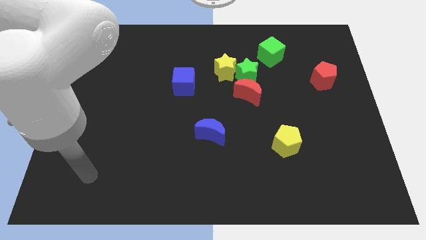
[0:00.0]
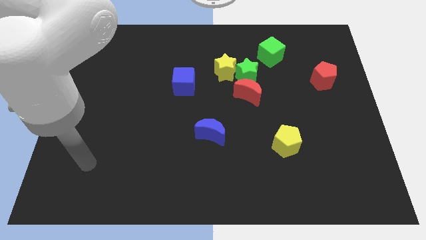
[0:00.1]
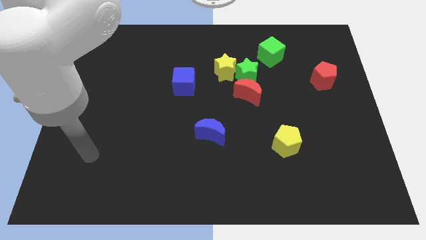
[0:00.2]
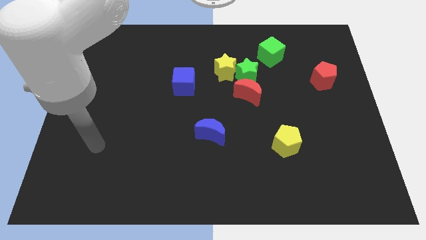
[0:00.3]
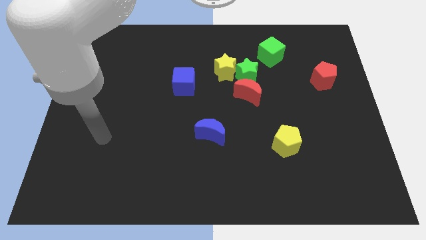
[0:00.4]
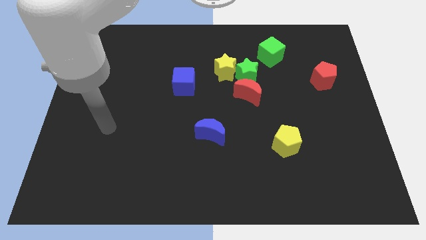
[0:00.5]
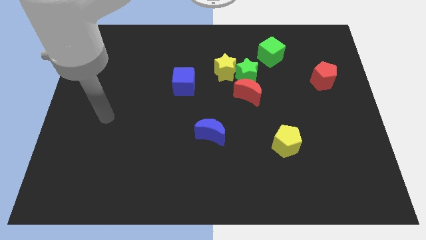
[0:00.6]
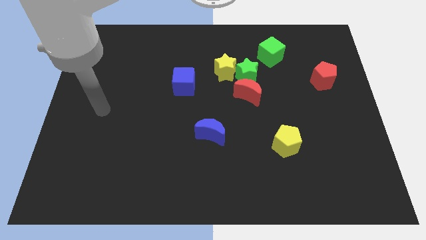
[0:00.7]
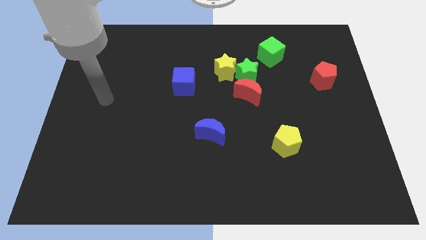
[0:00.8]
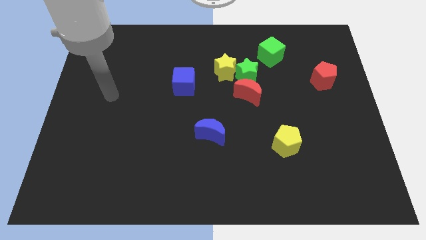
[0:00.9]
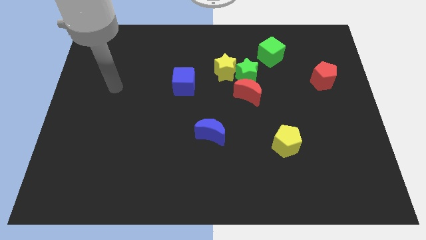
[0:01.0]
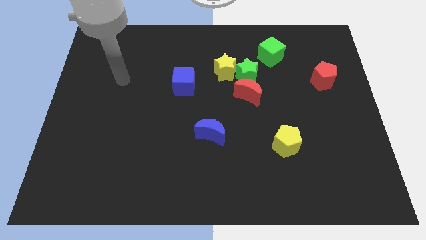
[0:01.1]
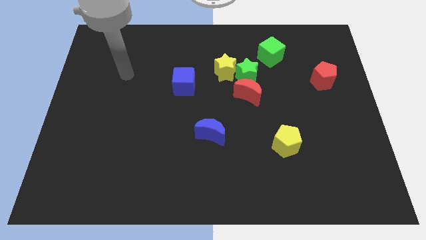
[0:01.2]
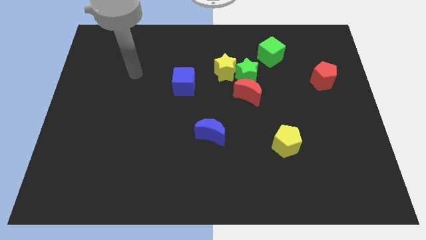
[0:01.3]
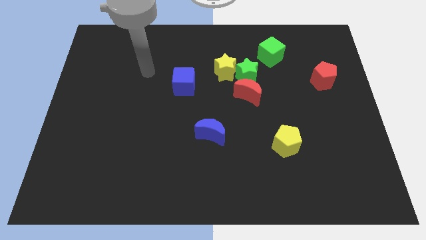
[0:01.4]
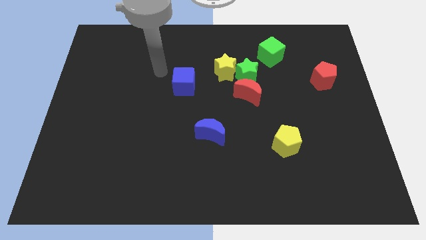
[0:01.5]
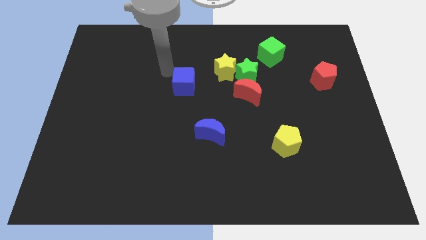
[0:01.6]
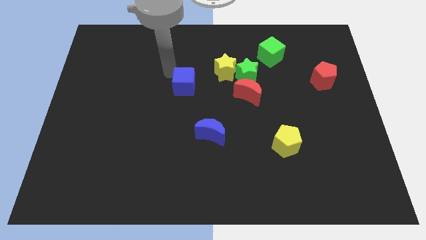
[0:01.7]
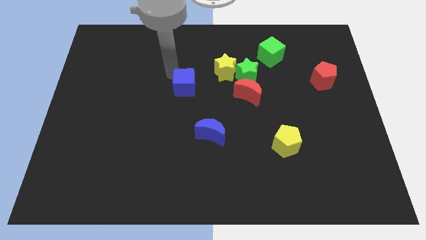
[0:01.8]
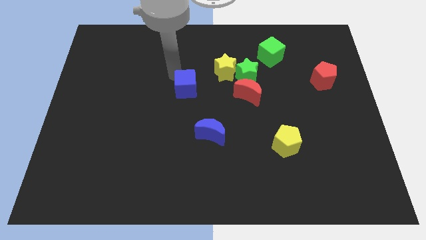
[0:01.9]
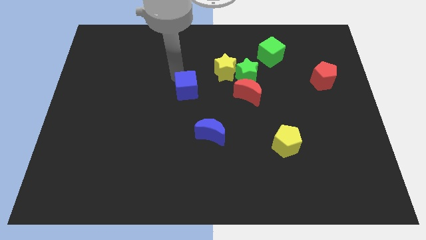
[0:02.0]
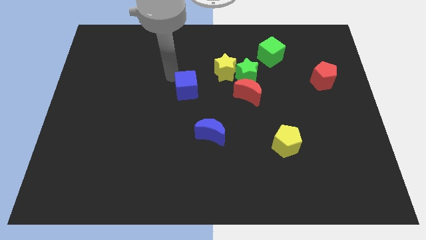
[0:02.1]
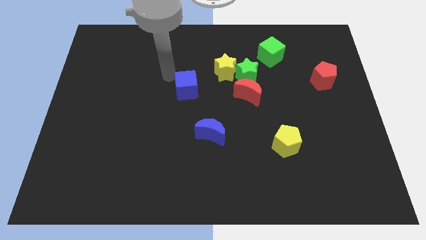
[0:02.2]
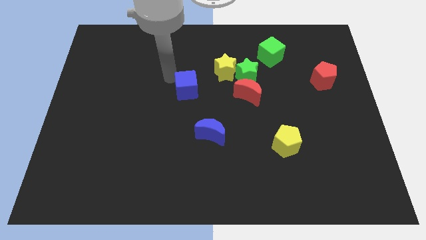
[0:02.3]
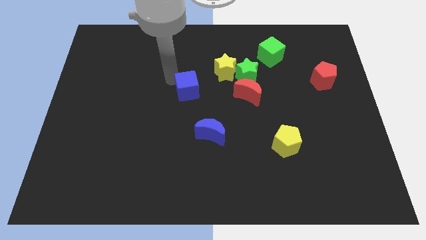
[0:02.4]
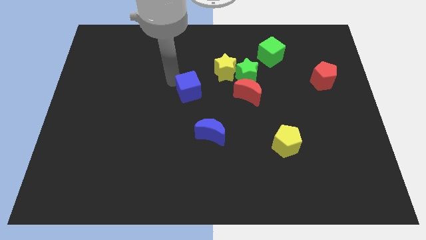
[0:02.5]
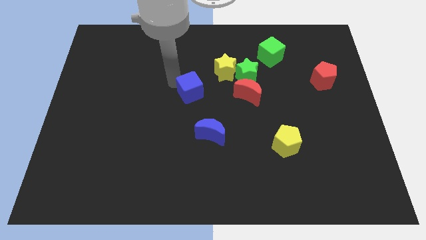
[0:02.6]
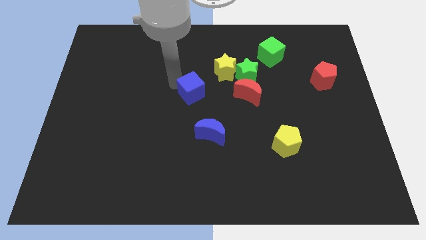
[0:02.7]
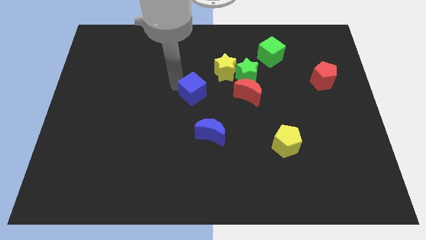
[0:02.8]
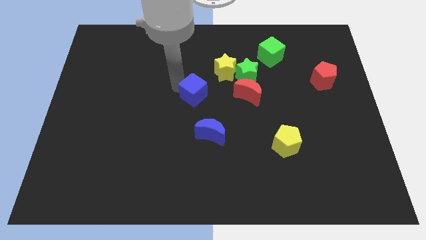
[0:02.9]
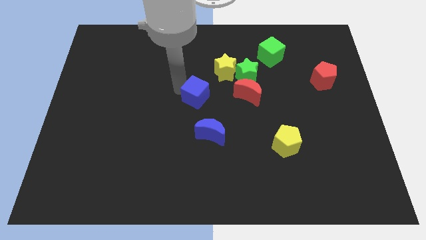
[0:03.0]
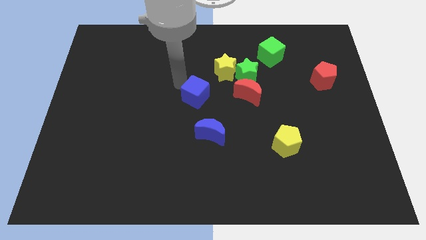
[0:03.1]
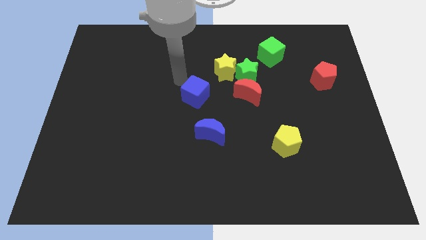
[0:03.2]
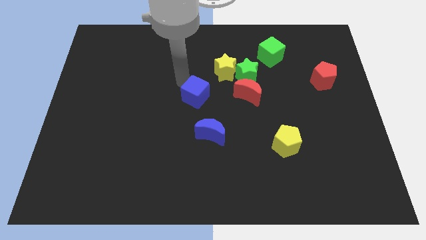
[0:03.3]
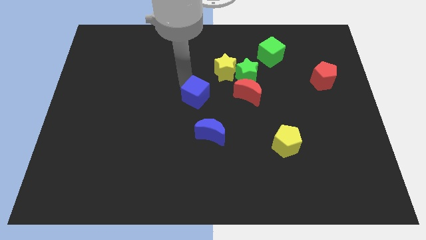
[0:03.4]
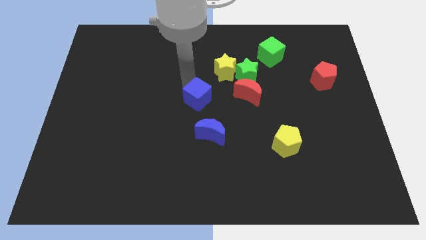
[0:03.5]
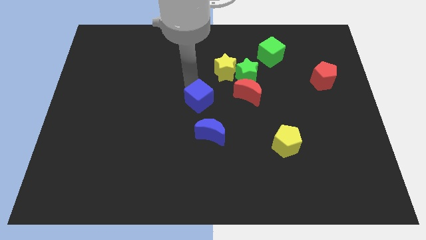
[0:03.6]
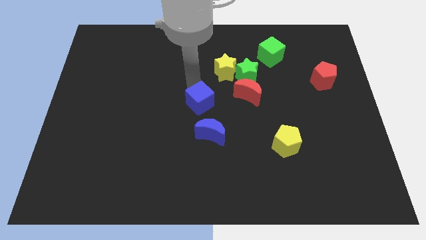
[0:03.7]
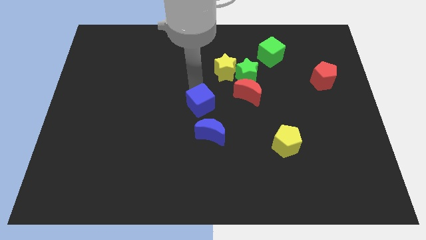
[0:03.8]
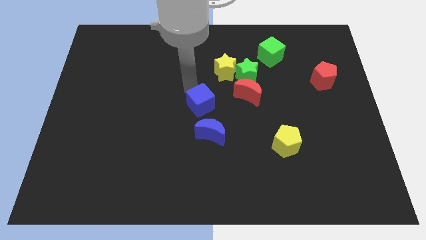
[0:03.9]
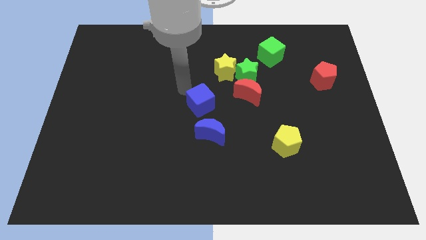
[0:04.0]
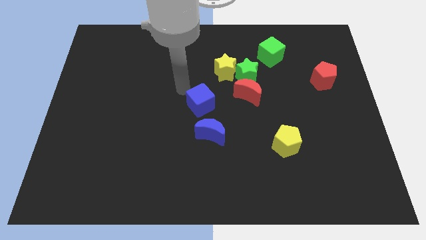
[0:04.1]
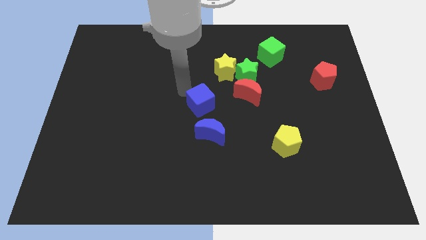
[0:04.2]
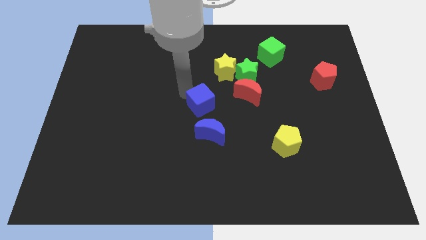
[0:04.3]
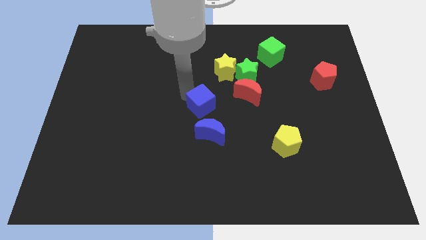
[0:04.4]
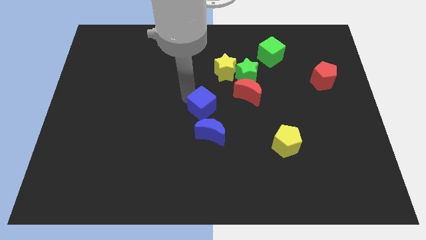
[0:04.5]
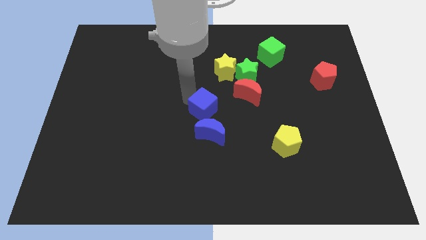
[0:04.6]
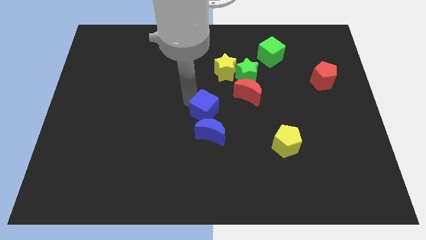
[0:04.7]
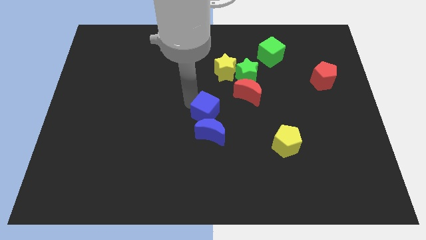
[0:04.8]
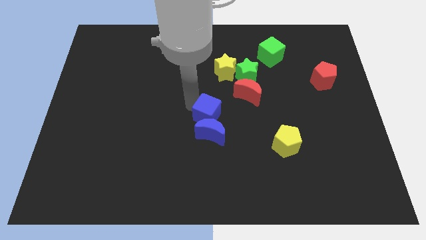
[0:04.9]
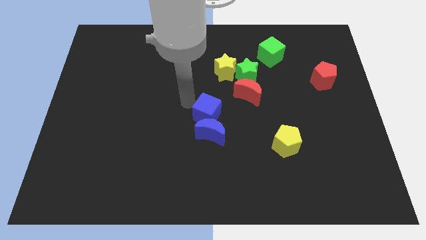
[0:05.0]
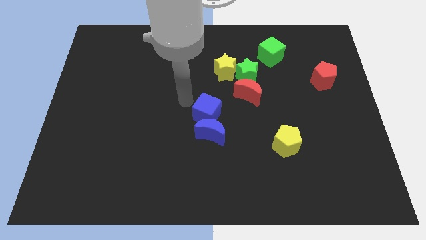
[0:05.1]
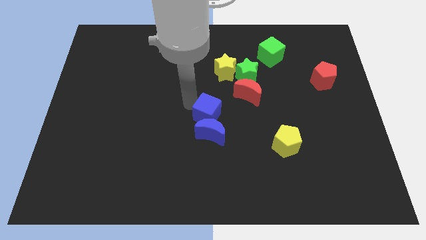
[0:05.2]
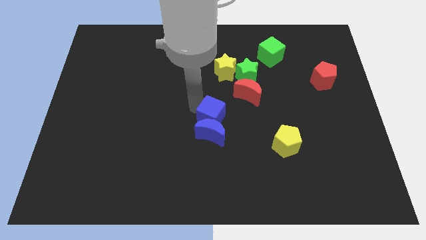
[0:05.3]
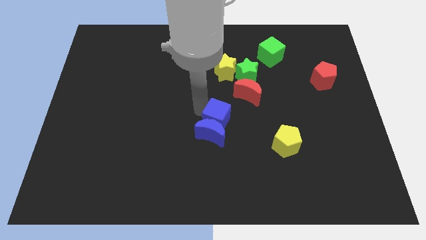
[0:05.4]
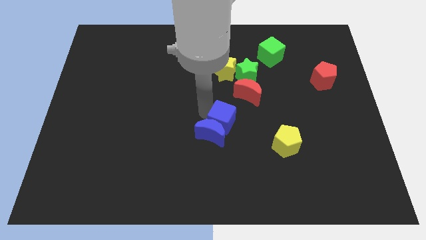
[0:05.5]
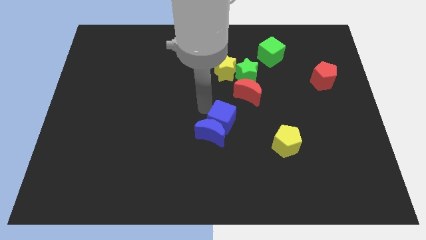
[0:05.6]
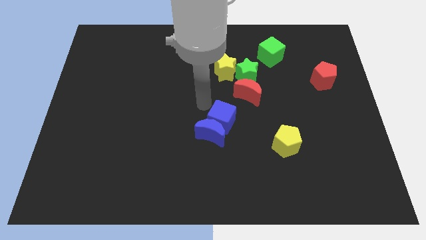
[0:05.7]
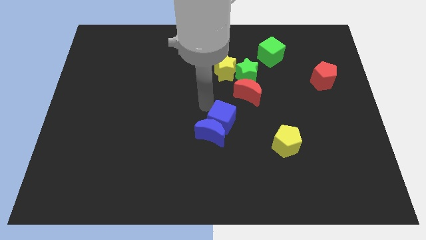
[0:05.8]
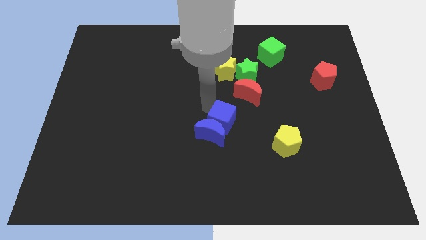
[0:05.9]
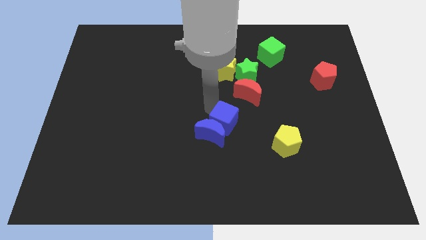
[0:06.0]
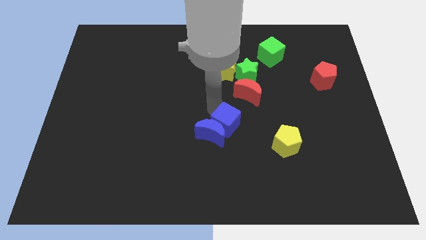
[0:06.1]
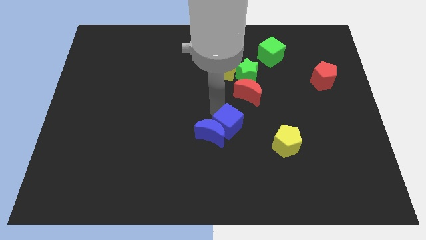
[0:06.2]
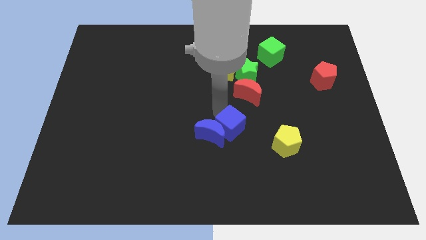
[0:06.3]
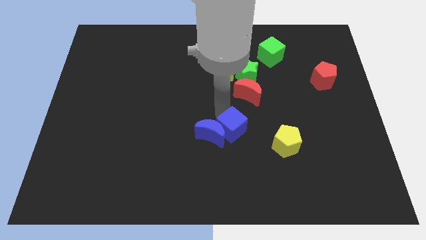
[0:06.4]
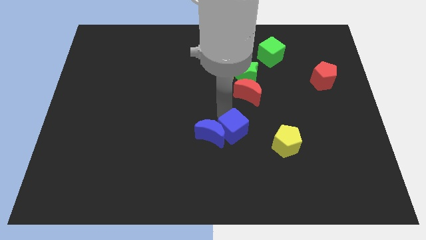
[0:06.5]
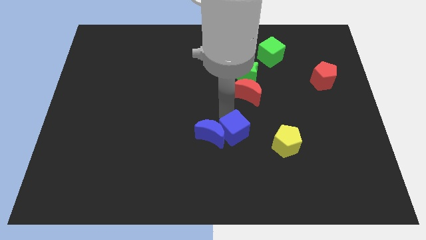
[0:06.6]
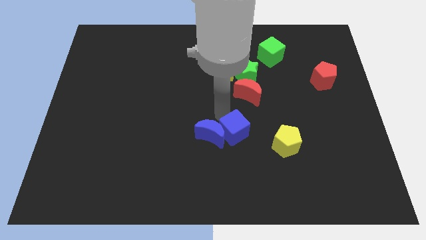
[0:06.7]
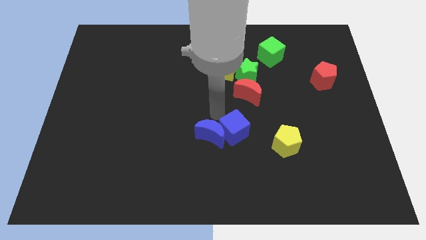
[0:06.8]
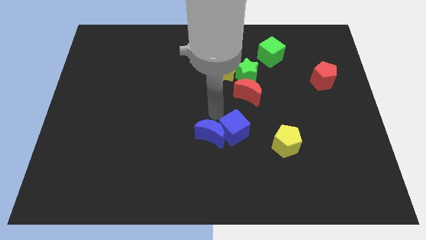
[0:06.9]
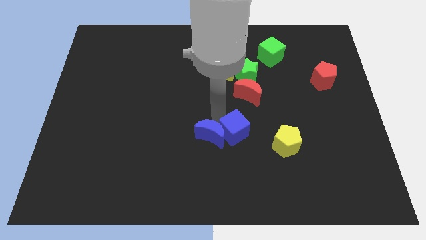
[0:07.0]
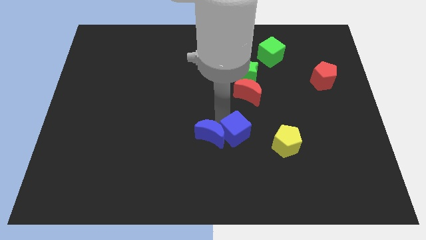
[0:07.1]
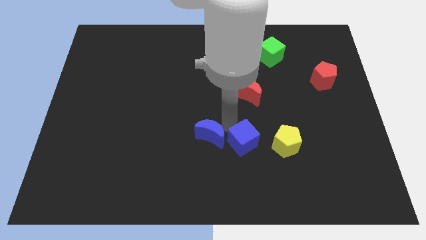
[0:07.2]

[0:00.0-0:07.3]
slide the blue cube diagonally downwards and right

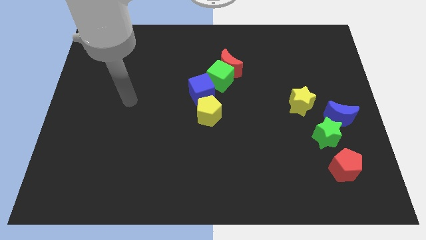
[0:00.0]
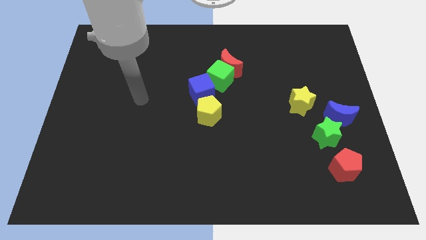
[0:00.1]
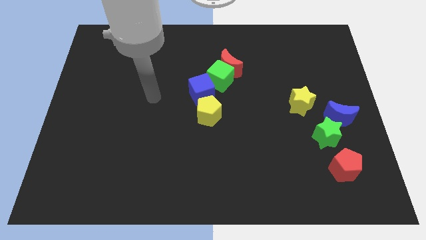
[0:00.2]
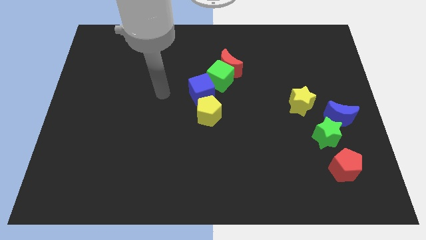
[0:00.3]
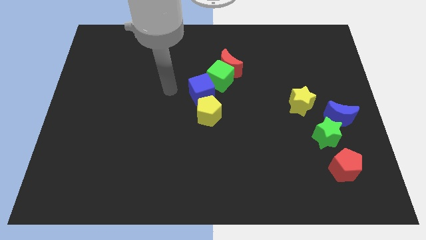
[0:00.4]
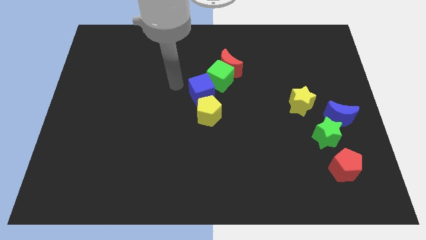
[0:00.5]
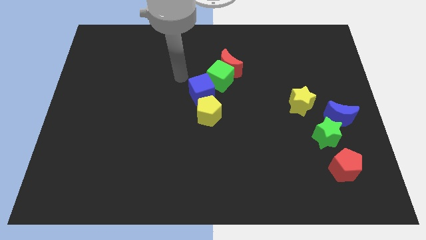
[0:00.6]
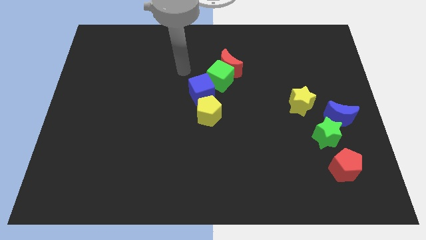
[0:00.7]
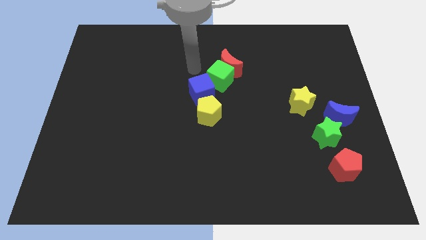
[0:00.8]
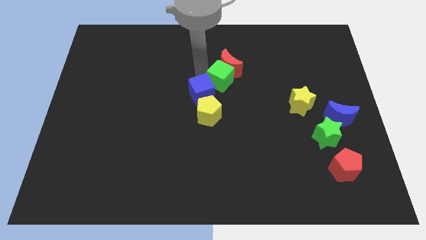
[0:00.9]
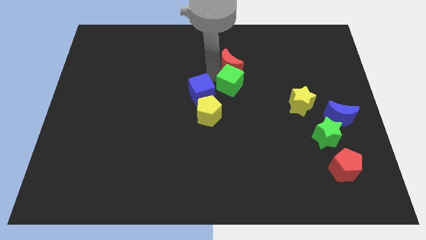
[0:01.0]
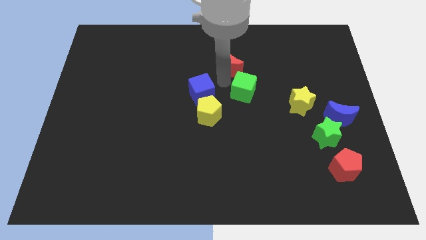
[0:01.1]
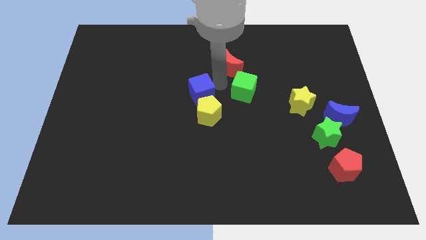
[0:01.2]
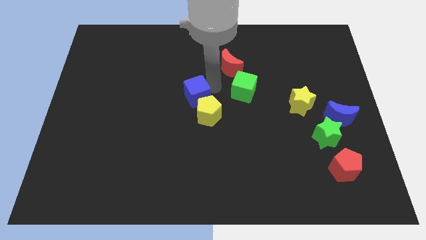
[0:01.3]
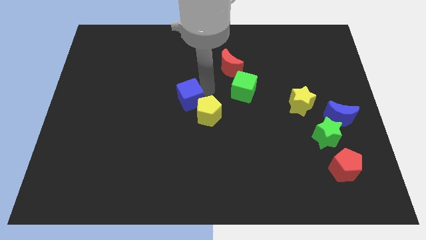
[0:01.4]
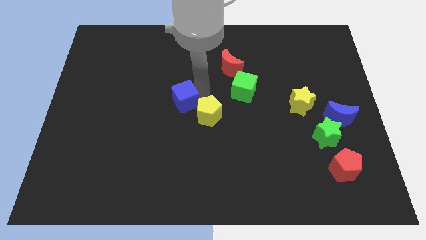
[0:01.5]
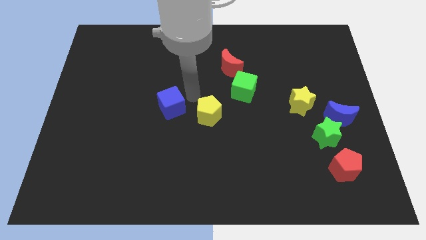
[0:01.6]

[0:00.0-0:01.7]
move the blue cube downwards and to the left diagonally a little bit
